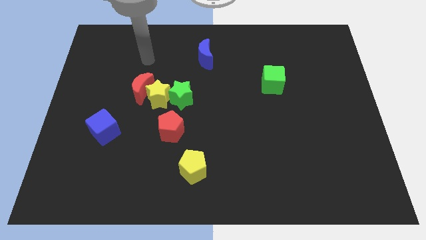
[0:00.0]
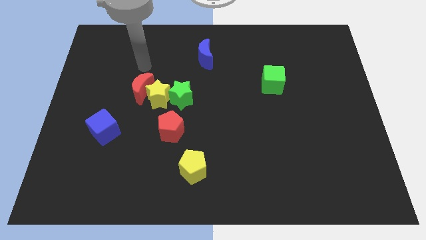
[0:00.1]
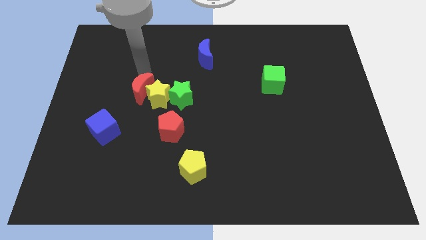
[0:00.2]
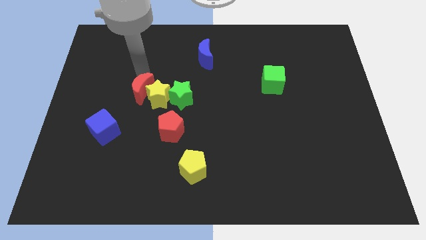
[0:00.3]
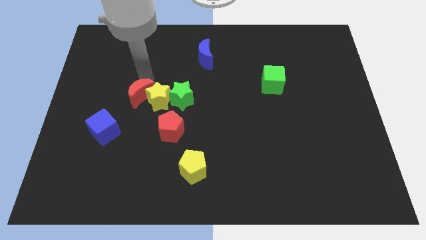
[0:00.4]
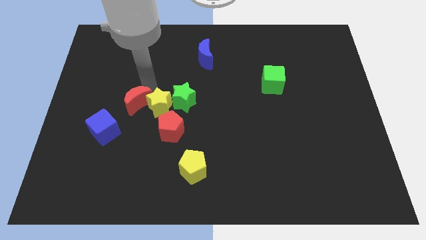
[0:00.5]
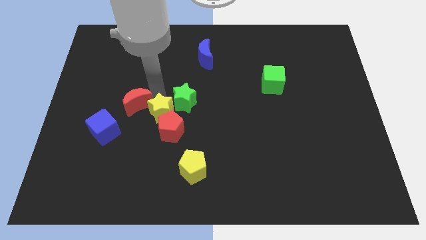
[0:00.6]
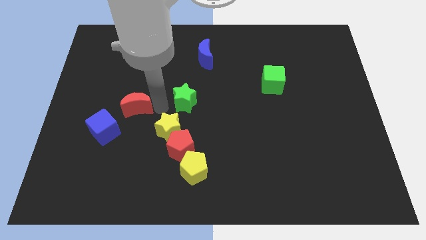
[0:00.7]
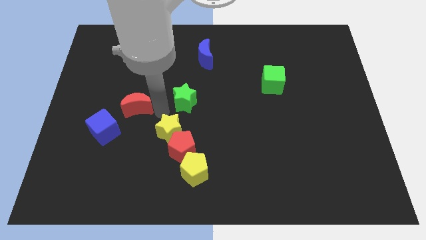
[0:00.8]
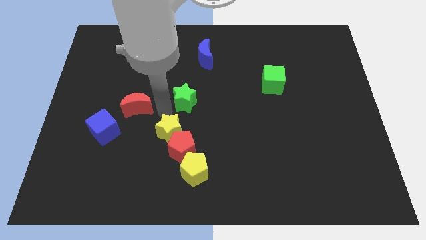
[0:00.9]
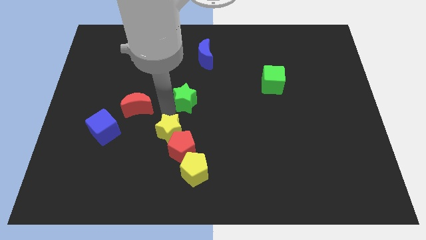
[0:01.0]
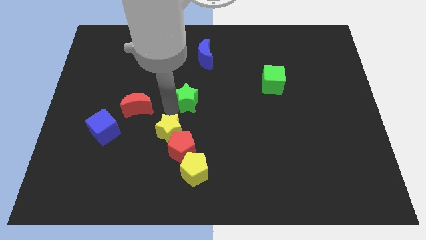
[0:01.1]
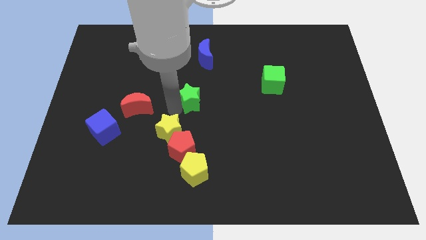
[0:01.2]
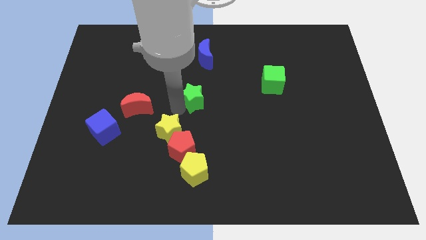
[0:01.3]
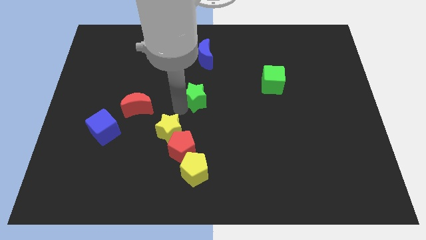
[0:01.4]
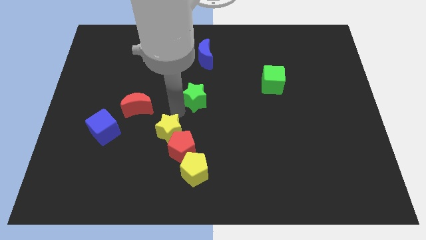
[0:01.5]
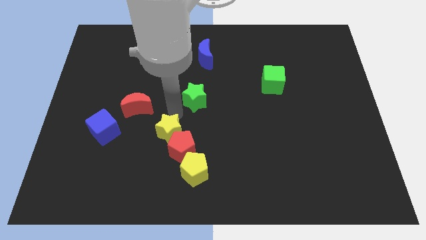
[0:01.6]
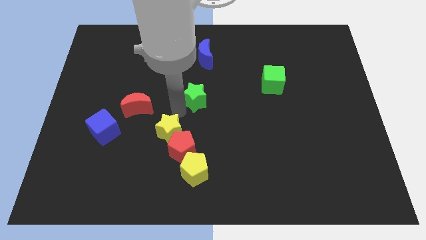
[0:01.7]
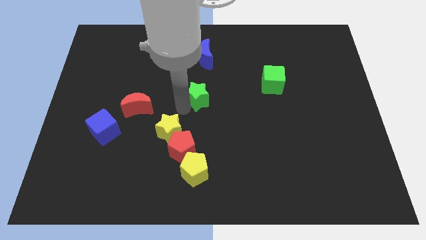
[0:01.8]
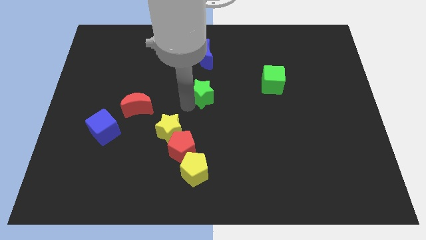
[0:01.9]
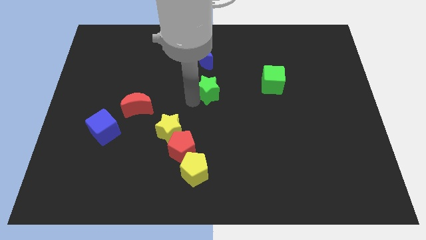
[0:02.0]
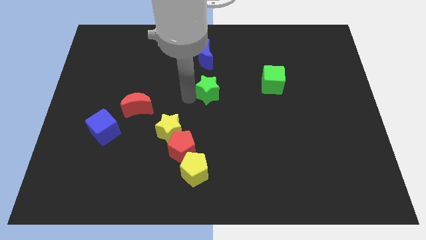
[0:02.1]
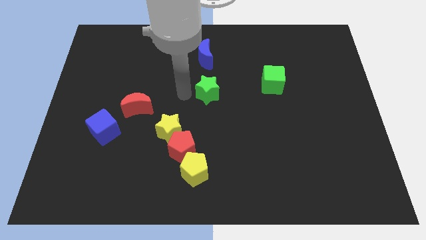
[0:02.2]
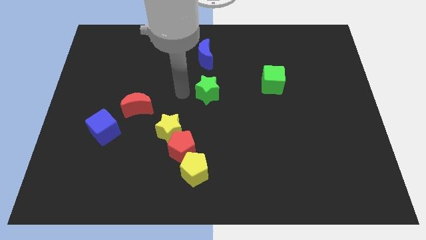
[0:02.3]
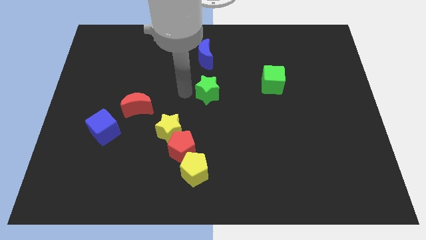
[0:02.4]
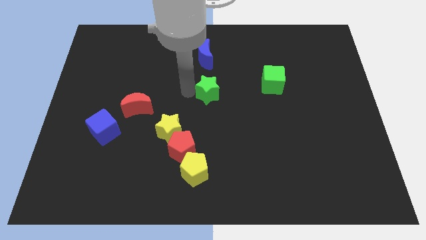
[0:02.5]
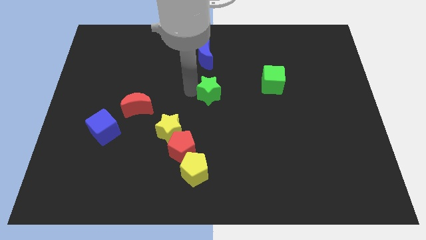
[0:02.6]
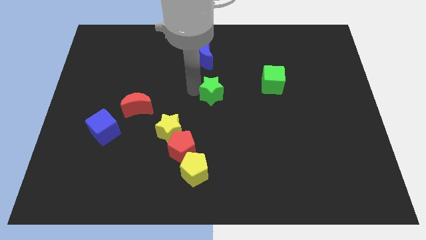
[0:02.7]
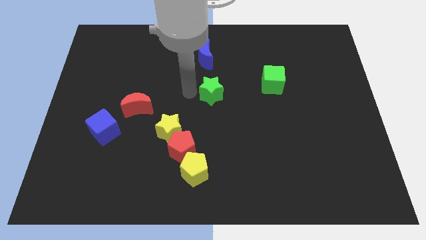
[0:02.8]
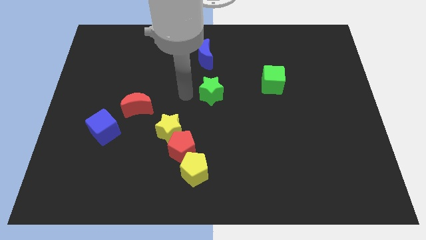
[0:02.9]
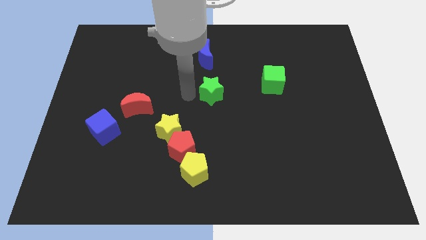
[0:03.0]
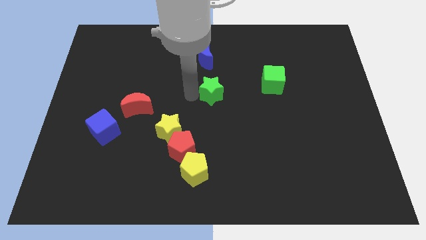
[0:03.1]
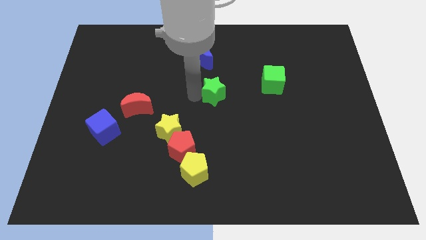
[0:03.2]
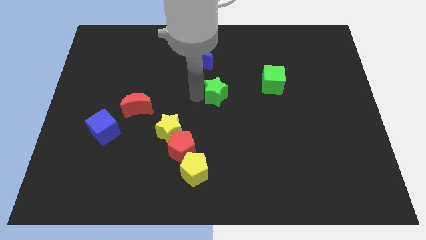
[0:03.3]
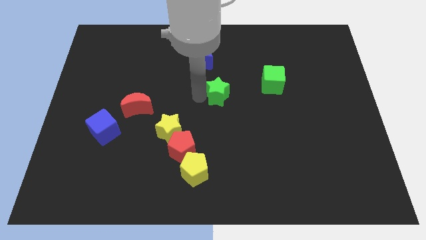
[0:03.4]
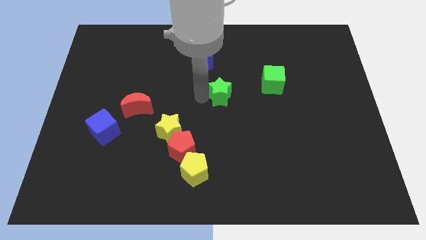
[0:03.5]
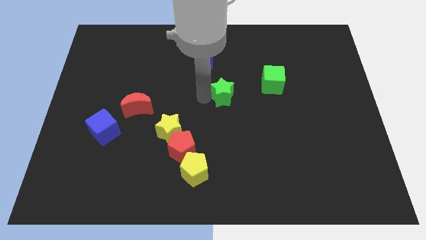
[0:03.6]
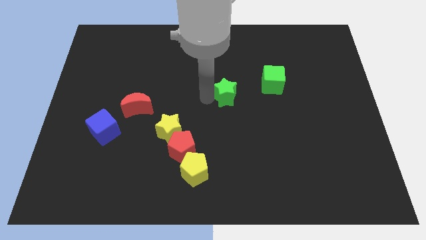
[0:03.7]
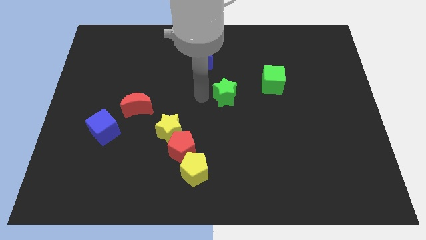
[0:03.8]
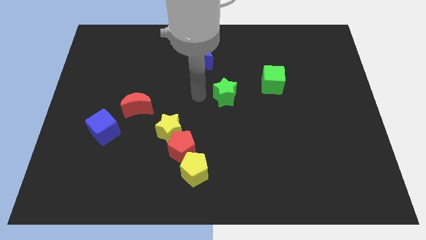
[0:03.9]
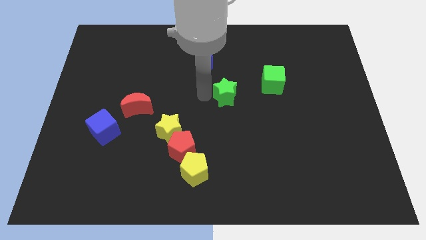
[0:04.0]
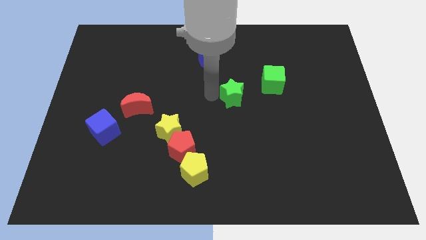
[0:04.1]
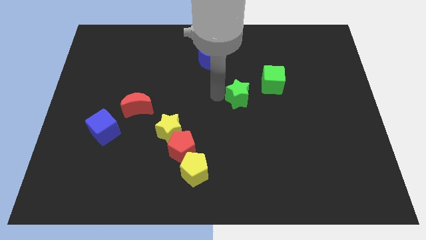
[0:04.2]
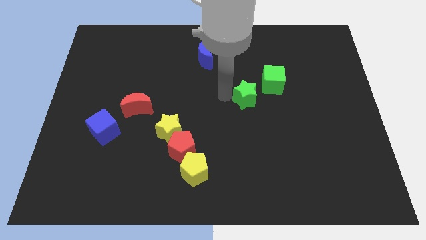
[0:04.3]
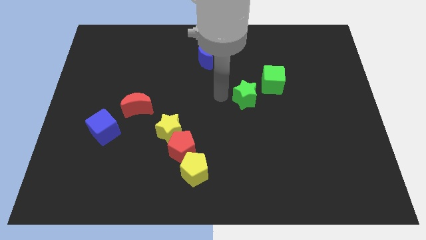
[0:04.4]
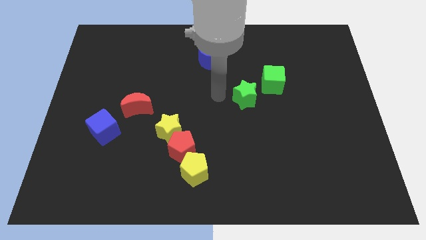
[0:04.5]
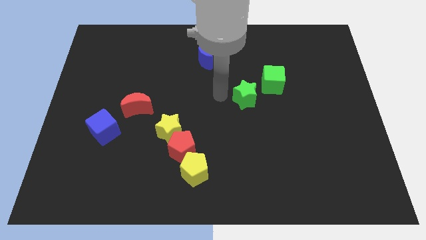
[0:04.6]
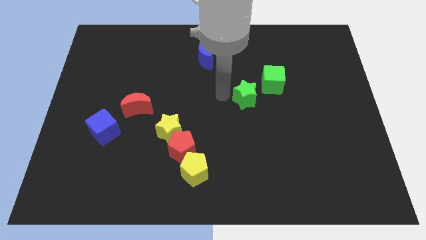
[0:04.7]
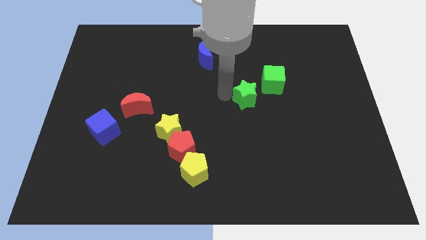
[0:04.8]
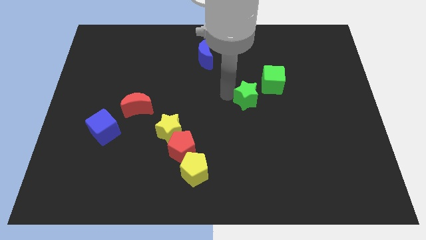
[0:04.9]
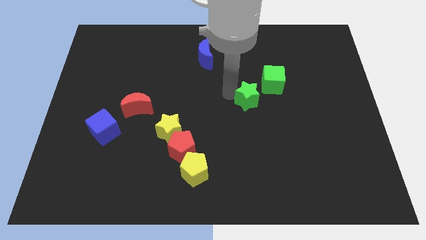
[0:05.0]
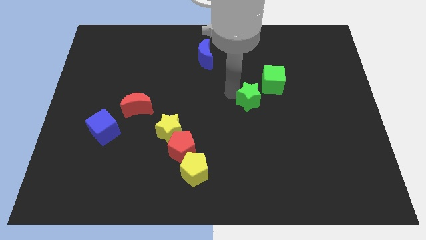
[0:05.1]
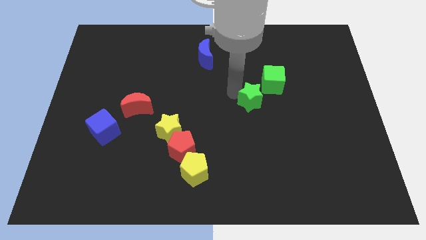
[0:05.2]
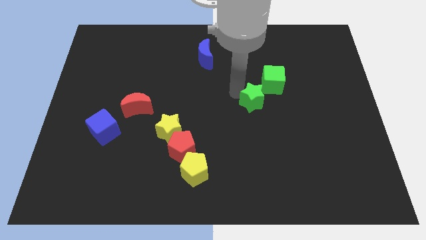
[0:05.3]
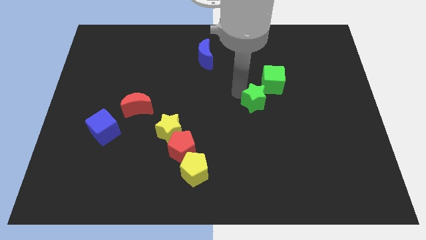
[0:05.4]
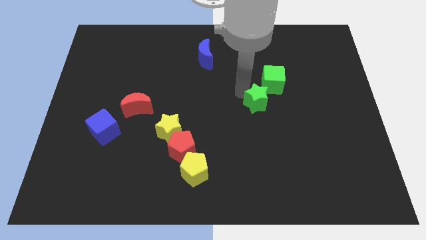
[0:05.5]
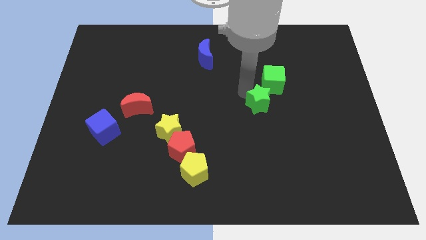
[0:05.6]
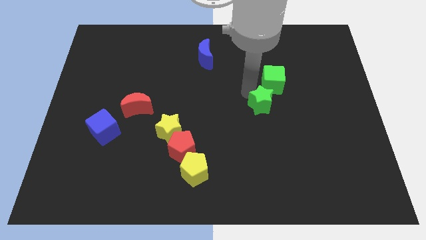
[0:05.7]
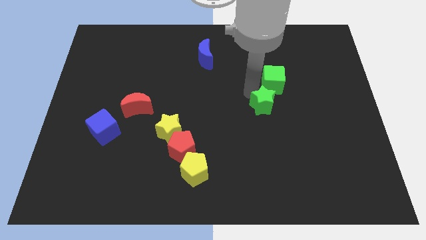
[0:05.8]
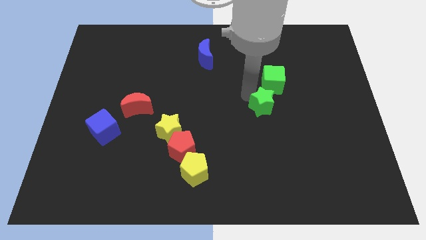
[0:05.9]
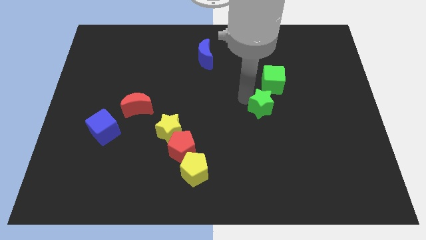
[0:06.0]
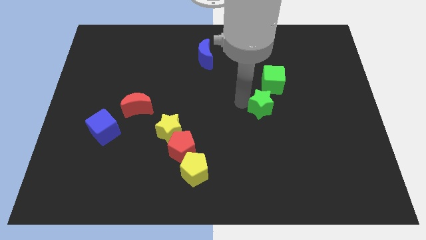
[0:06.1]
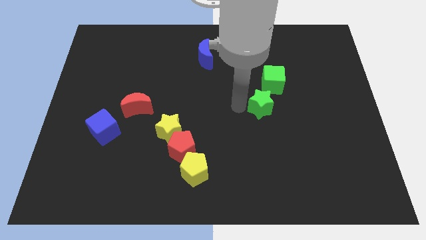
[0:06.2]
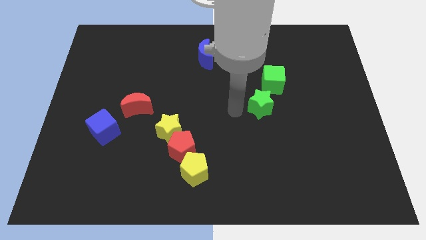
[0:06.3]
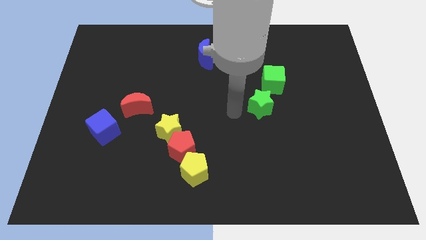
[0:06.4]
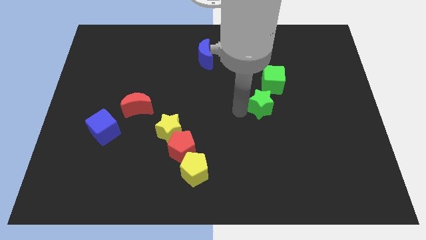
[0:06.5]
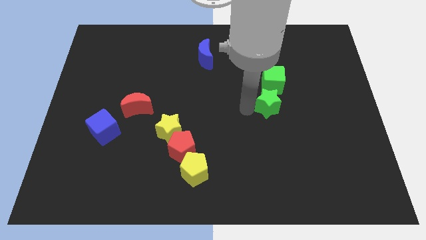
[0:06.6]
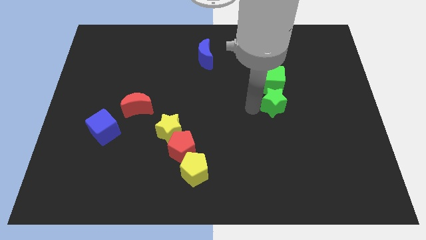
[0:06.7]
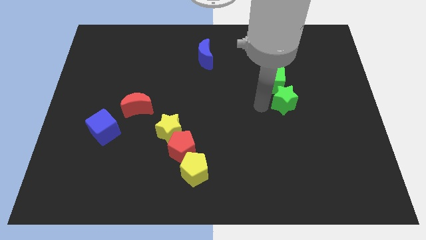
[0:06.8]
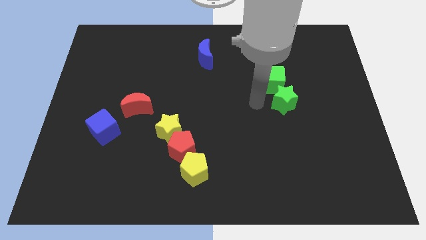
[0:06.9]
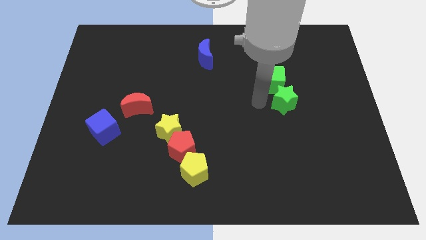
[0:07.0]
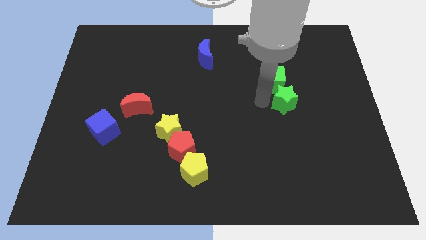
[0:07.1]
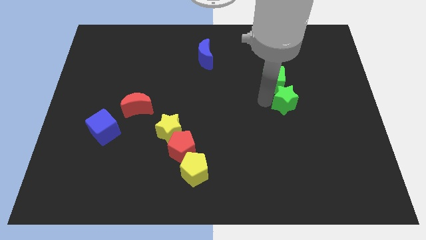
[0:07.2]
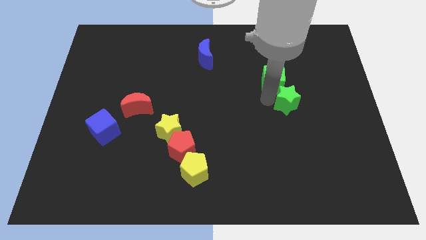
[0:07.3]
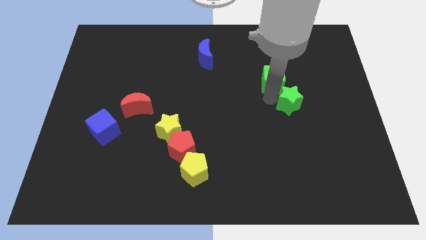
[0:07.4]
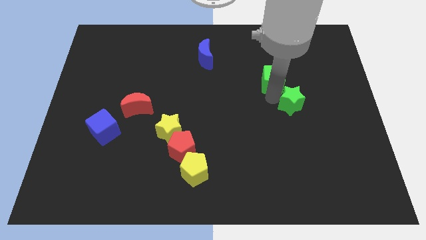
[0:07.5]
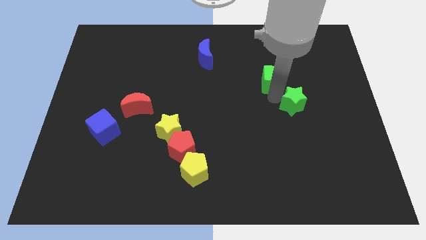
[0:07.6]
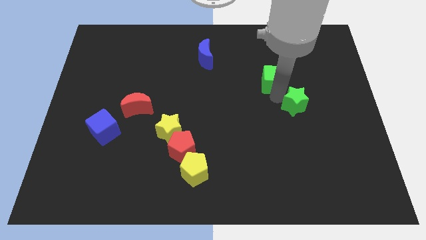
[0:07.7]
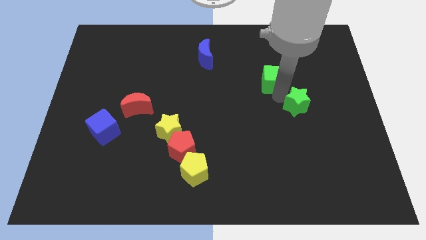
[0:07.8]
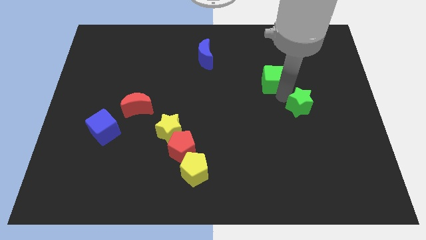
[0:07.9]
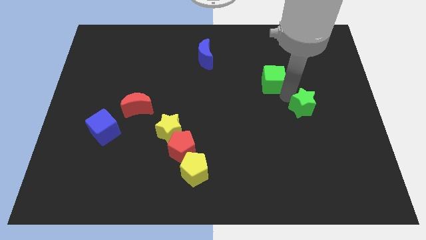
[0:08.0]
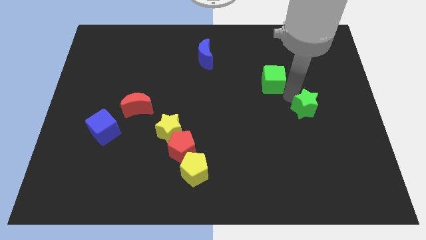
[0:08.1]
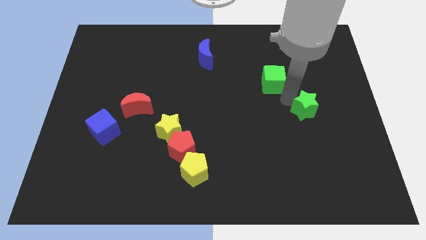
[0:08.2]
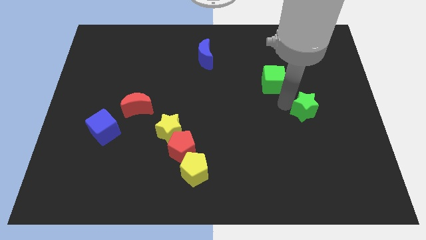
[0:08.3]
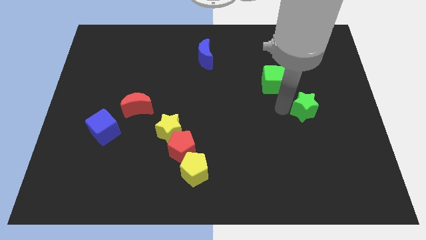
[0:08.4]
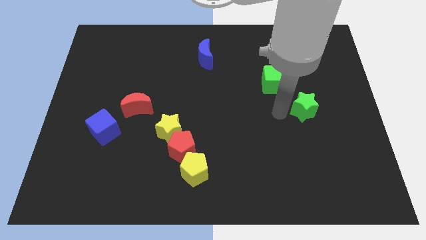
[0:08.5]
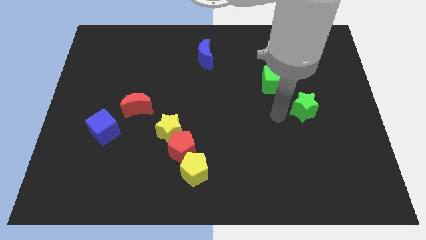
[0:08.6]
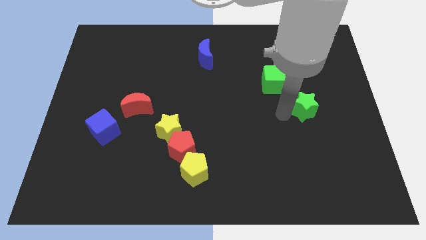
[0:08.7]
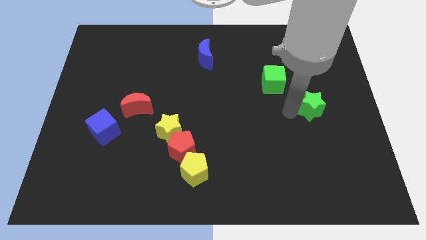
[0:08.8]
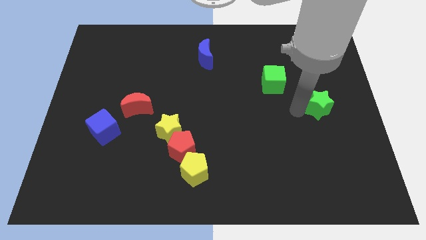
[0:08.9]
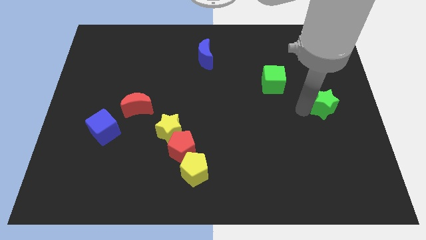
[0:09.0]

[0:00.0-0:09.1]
move the green star to the right side of the board
